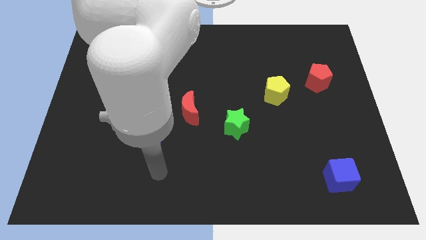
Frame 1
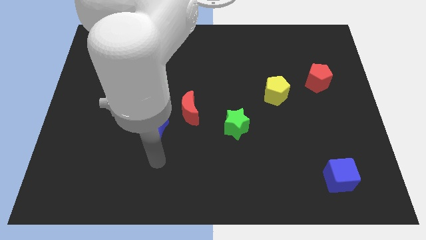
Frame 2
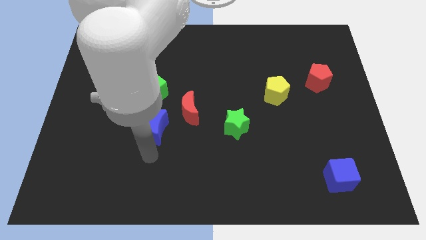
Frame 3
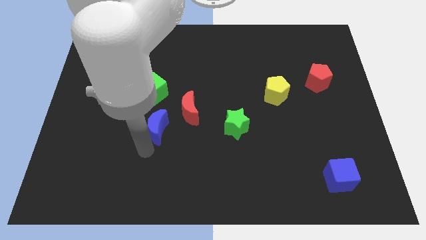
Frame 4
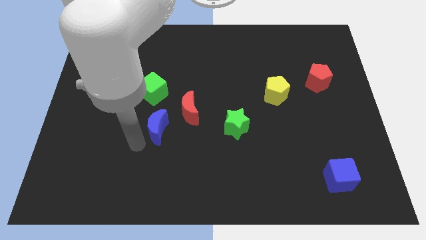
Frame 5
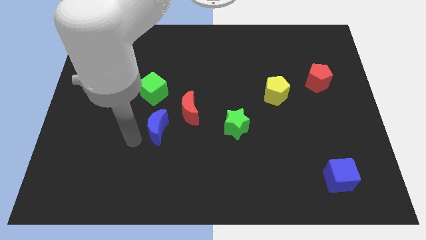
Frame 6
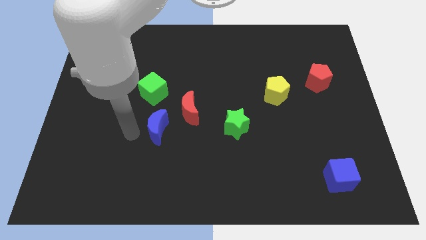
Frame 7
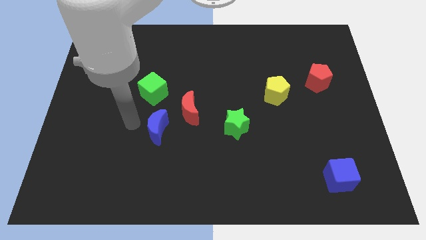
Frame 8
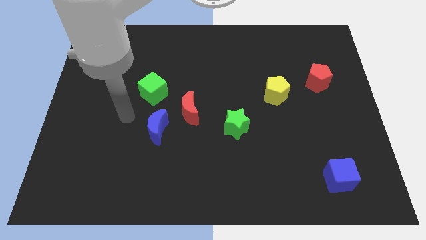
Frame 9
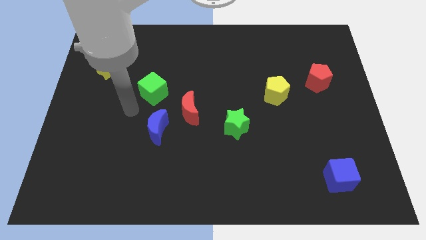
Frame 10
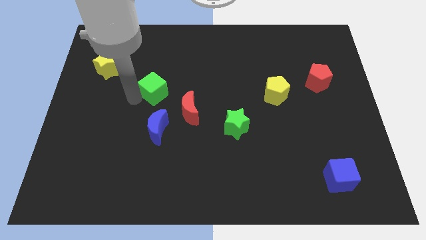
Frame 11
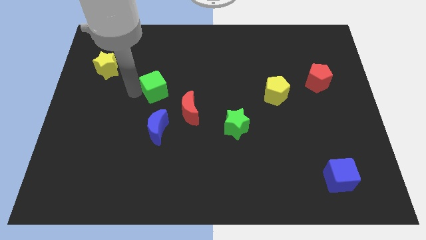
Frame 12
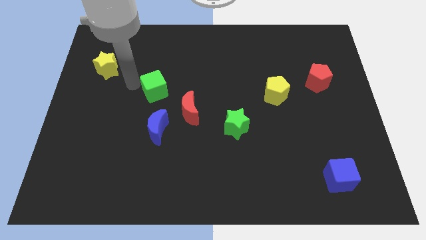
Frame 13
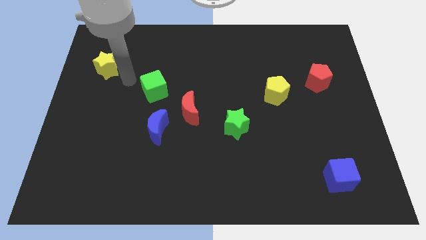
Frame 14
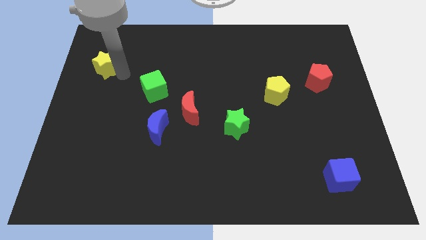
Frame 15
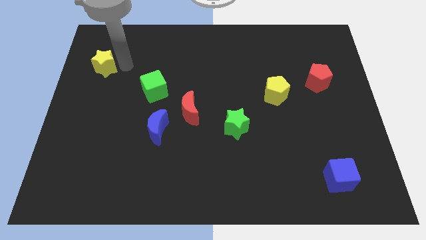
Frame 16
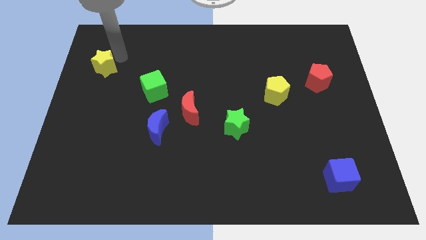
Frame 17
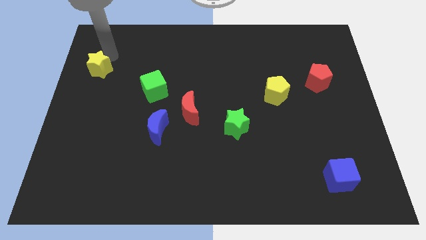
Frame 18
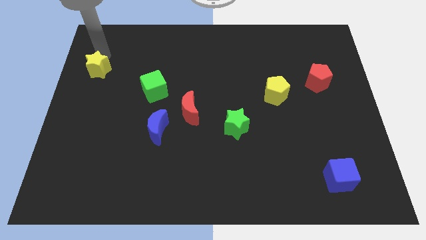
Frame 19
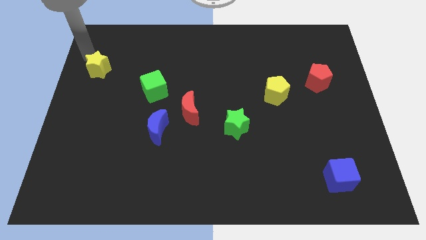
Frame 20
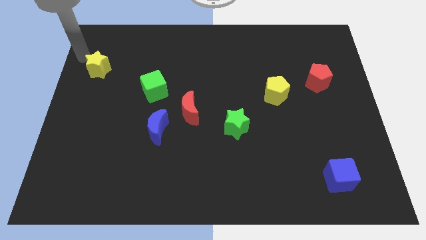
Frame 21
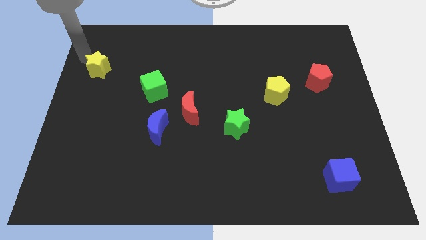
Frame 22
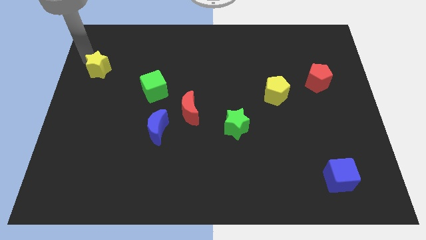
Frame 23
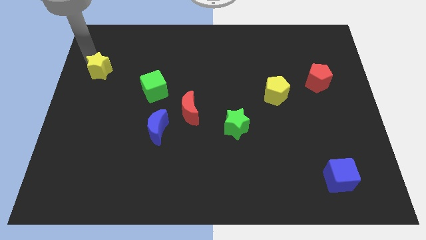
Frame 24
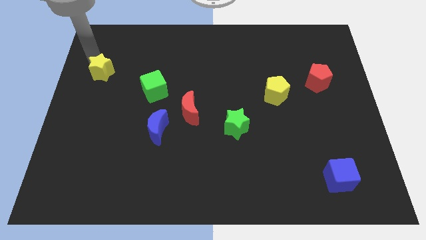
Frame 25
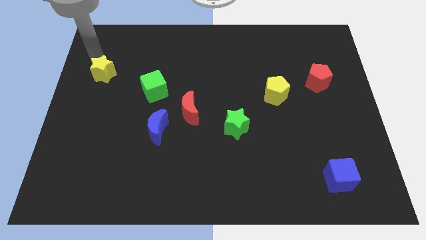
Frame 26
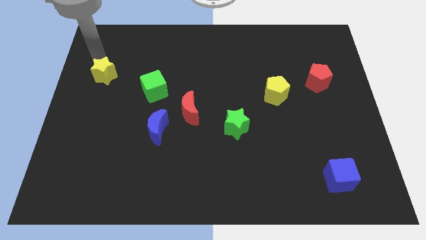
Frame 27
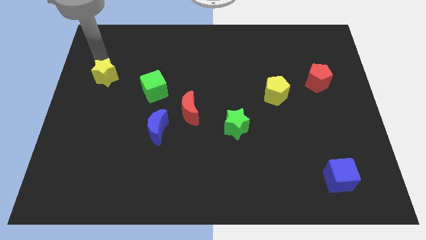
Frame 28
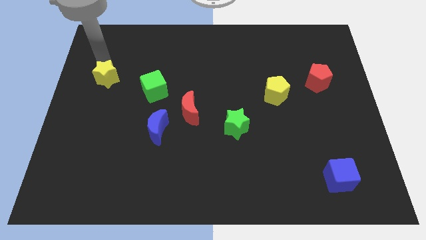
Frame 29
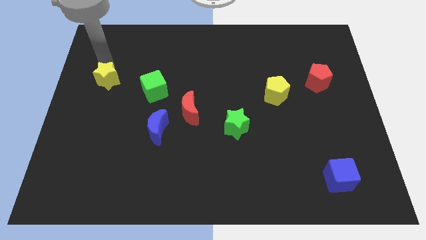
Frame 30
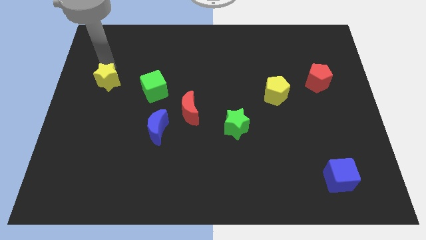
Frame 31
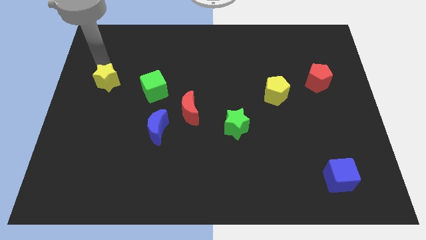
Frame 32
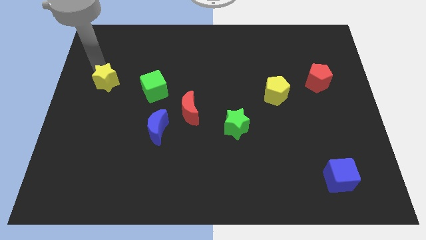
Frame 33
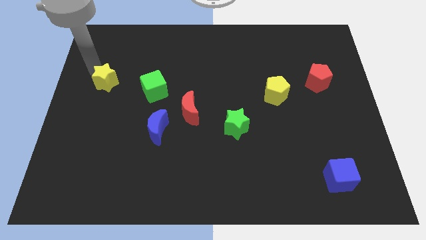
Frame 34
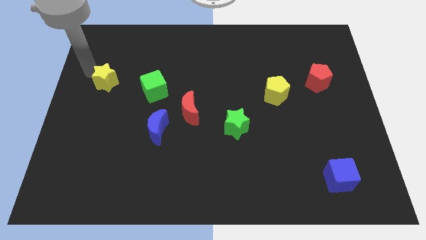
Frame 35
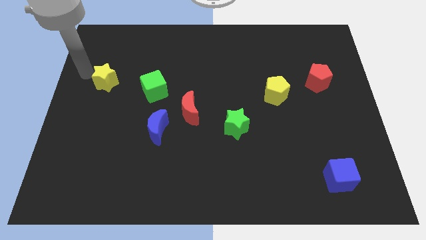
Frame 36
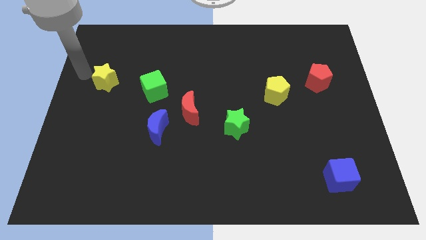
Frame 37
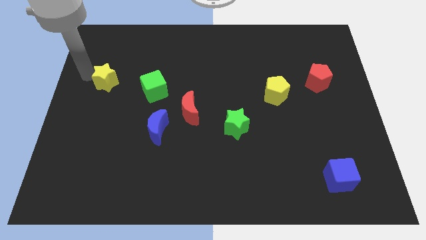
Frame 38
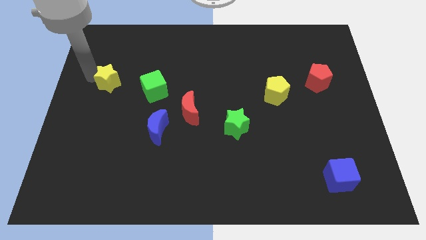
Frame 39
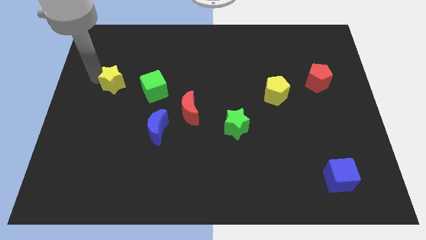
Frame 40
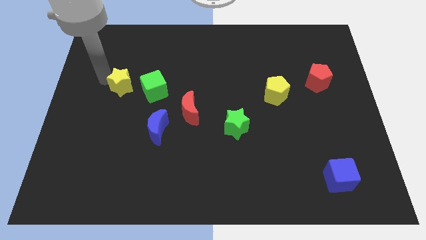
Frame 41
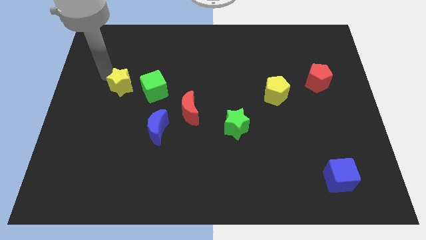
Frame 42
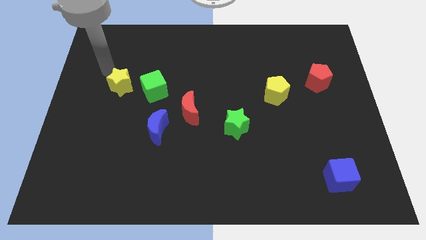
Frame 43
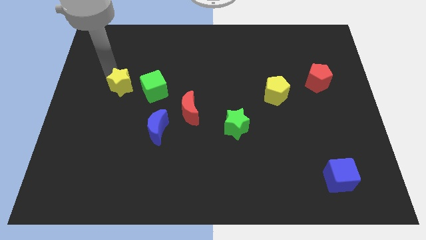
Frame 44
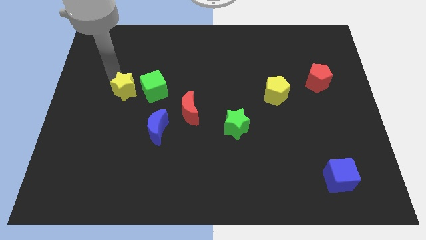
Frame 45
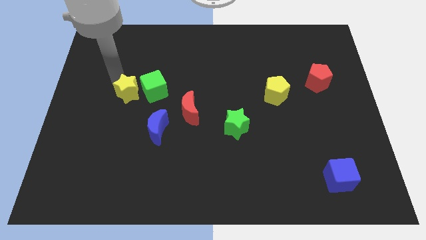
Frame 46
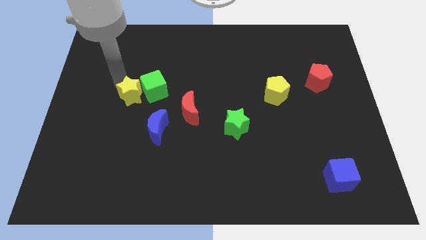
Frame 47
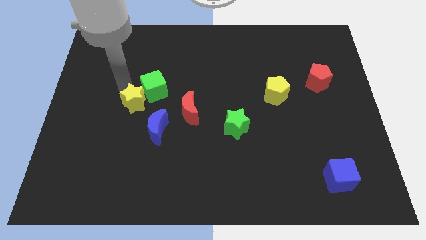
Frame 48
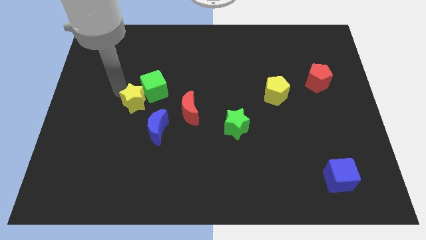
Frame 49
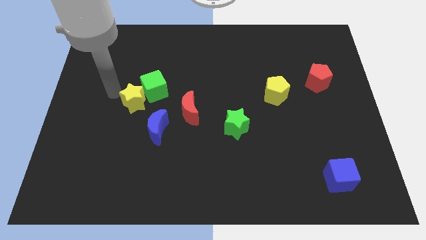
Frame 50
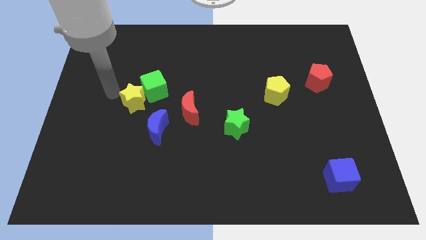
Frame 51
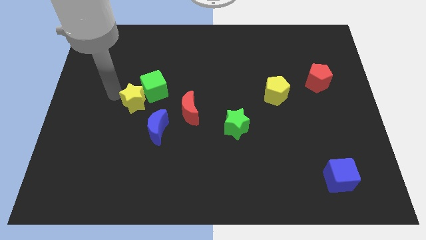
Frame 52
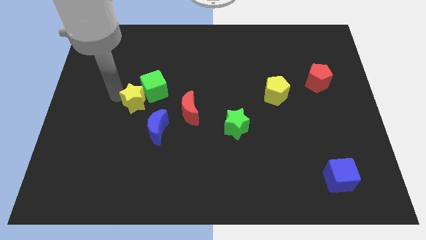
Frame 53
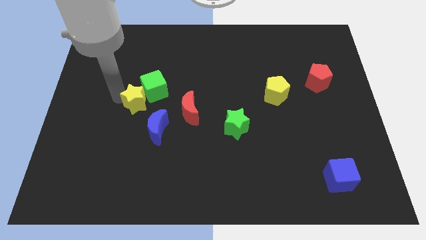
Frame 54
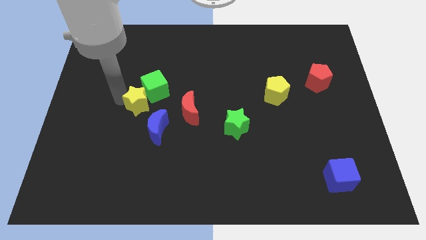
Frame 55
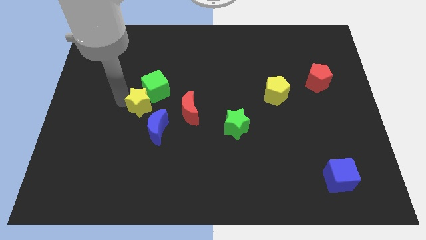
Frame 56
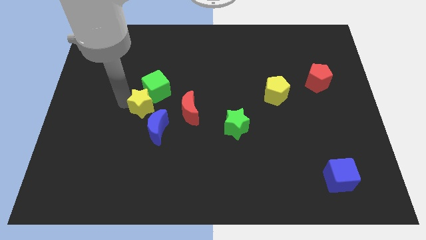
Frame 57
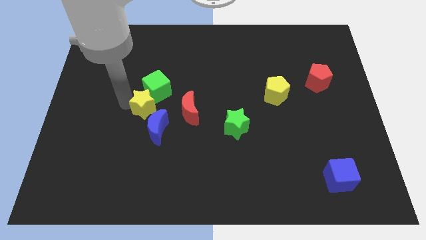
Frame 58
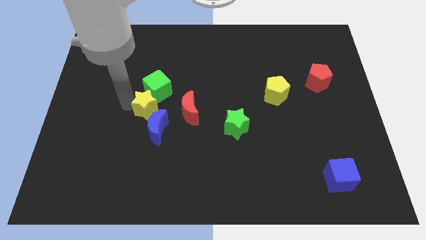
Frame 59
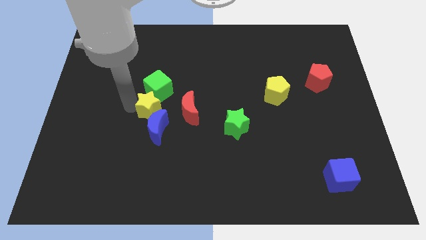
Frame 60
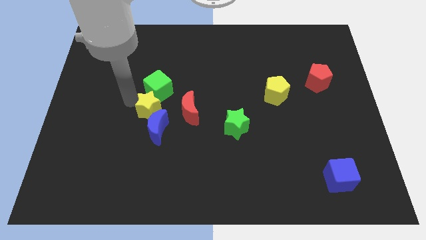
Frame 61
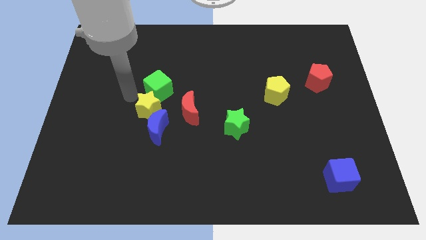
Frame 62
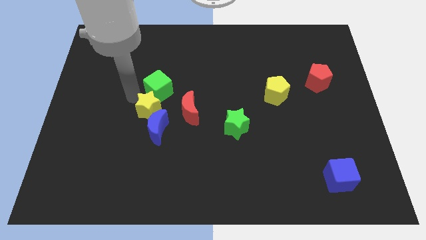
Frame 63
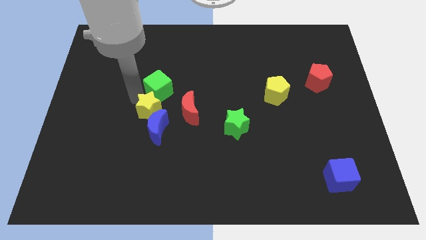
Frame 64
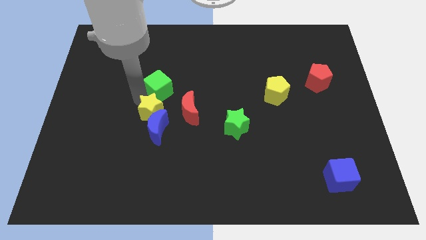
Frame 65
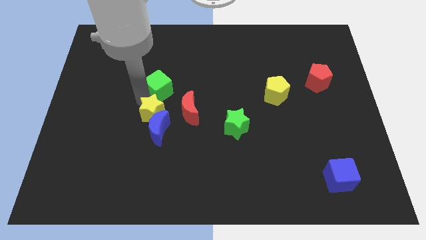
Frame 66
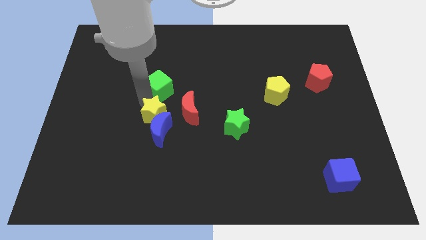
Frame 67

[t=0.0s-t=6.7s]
move the yellow star downwards and then right

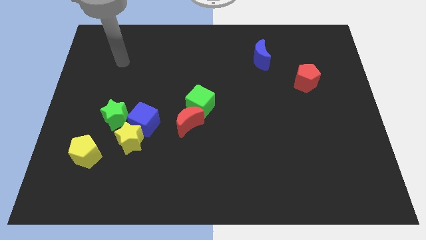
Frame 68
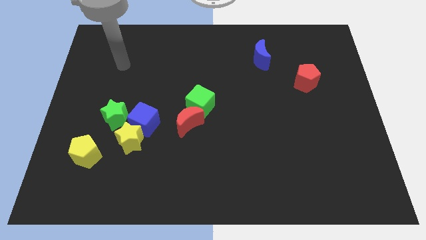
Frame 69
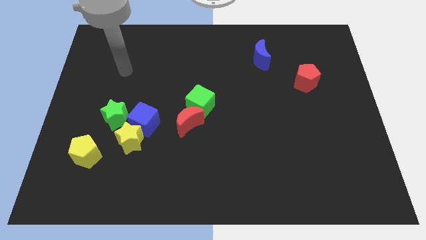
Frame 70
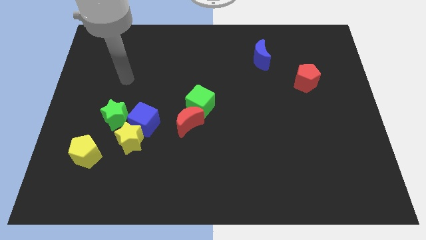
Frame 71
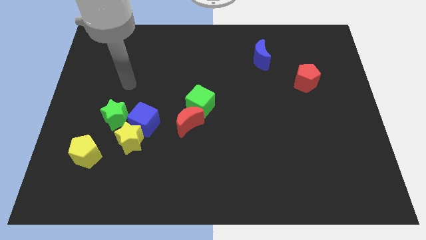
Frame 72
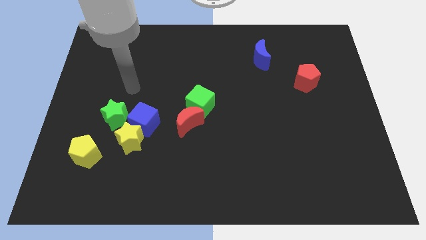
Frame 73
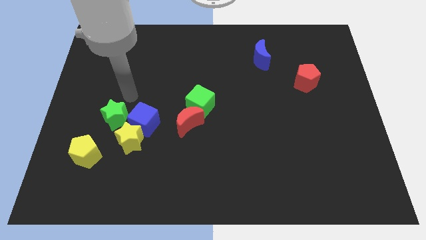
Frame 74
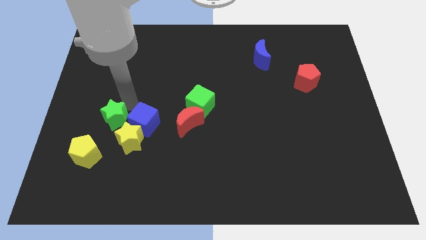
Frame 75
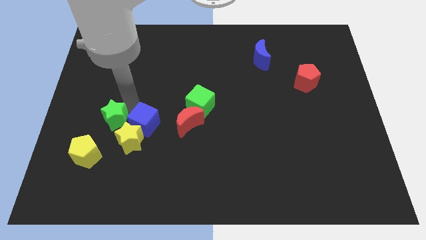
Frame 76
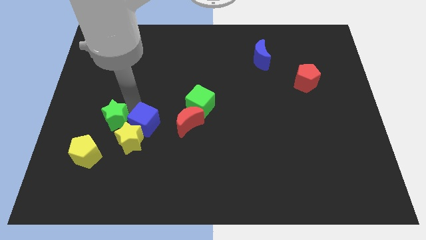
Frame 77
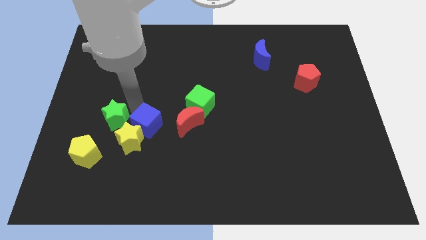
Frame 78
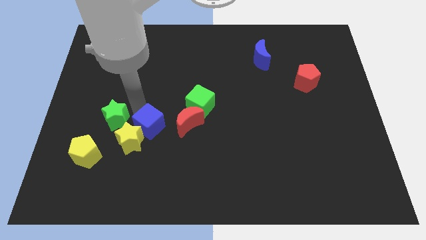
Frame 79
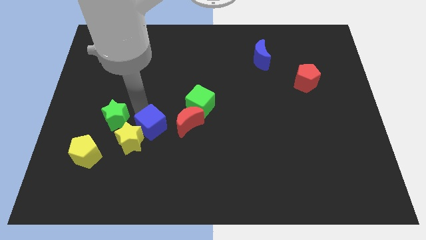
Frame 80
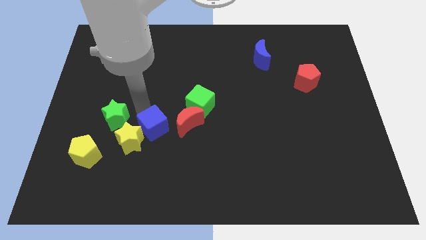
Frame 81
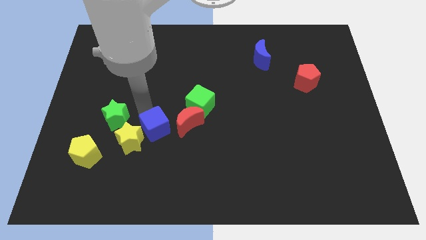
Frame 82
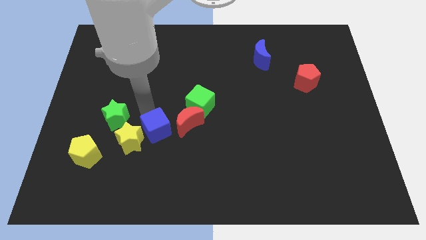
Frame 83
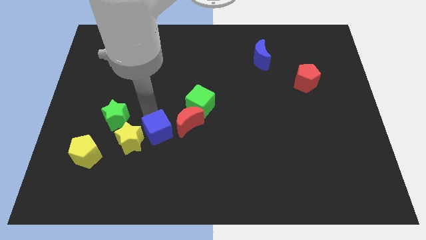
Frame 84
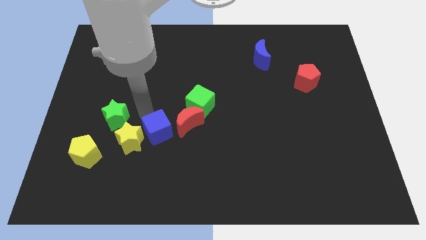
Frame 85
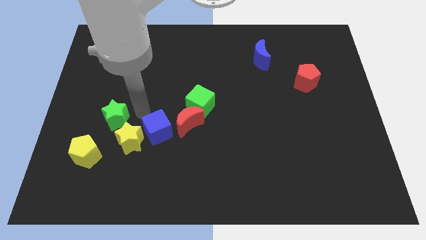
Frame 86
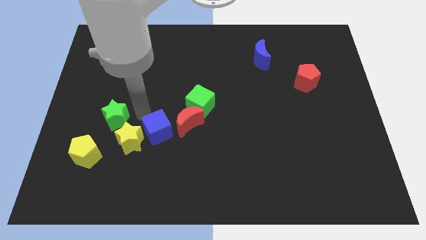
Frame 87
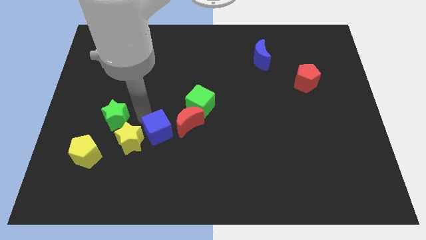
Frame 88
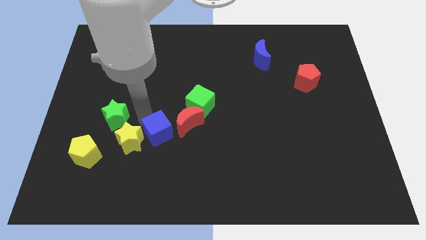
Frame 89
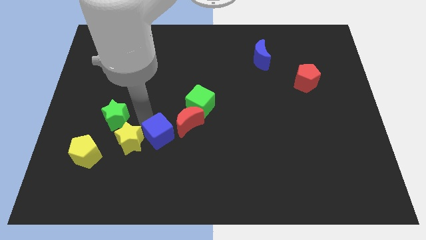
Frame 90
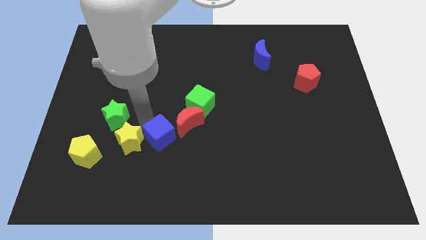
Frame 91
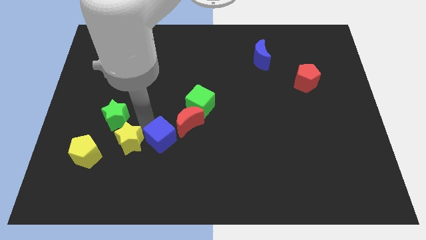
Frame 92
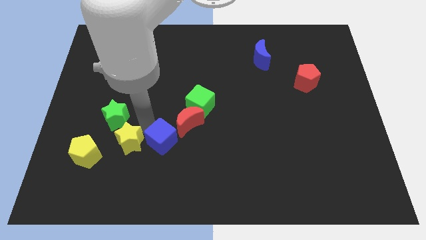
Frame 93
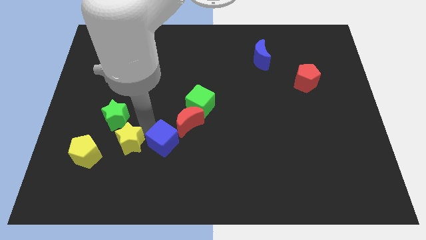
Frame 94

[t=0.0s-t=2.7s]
move the blue cube somewhat downwards and right diagonally
